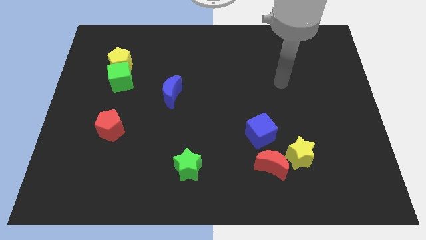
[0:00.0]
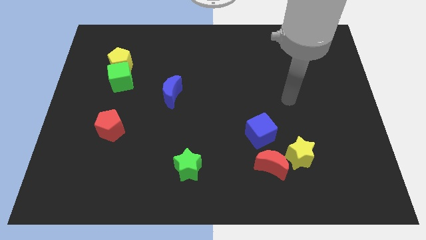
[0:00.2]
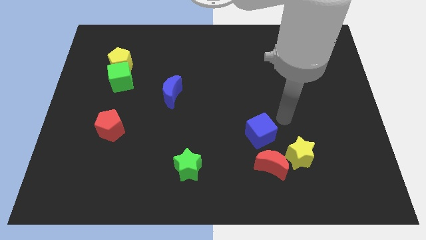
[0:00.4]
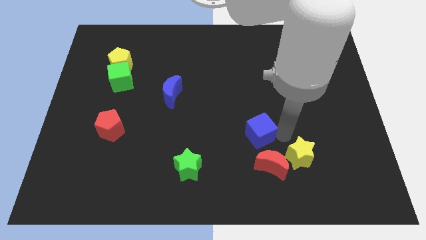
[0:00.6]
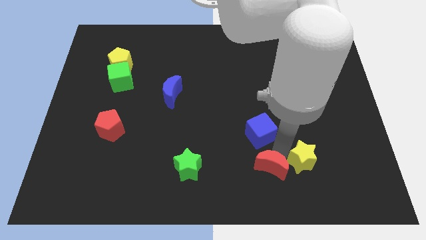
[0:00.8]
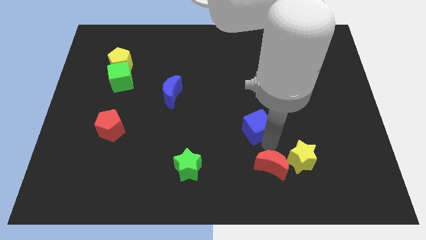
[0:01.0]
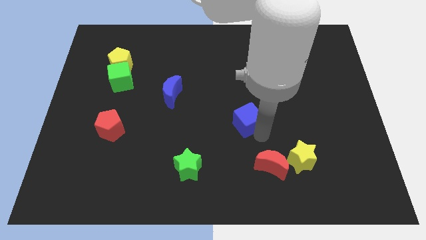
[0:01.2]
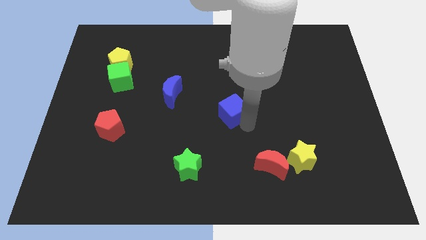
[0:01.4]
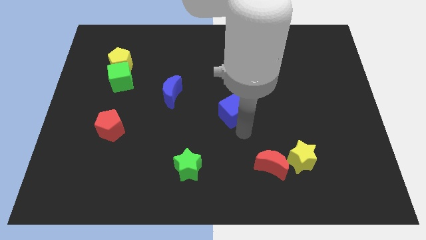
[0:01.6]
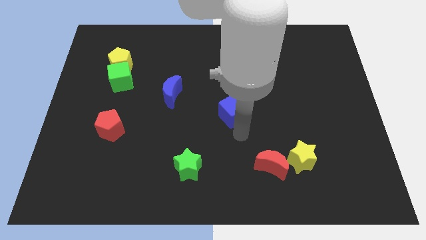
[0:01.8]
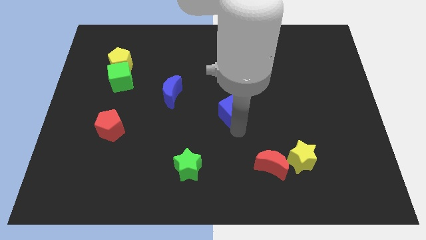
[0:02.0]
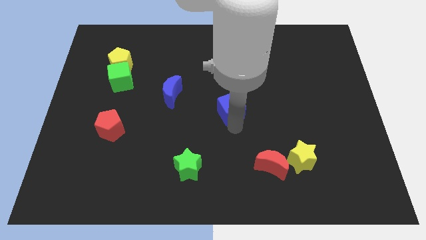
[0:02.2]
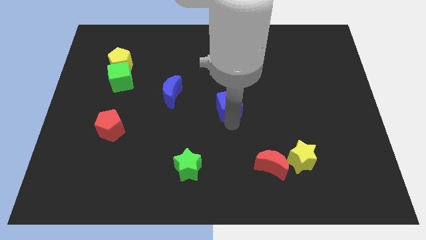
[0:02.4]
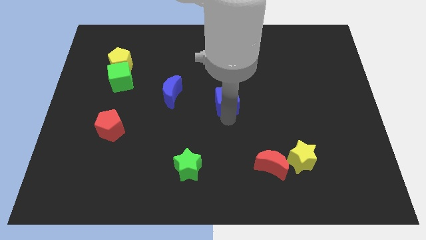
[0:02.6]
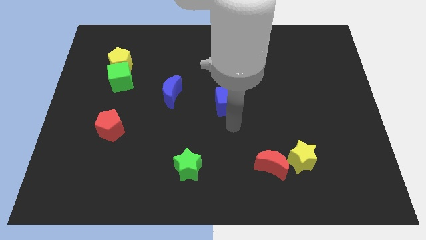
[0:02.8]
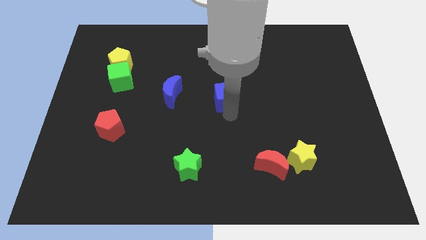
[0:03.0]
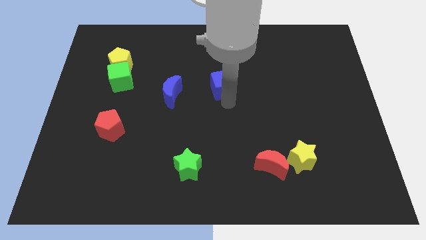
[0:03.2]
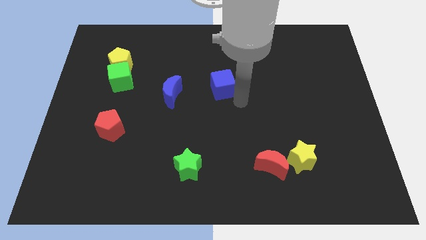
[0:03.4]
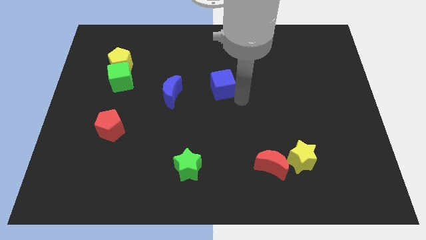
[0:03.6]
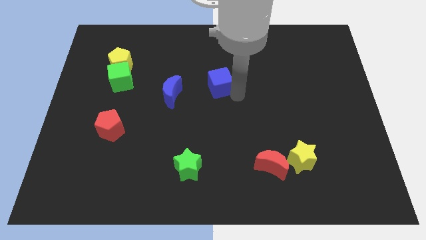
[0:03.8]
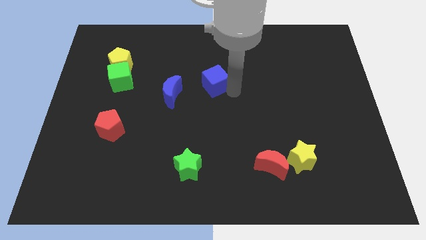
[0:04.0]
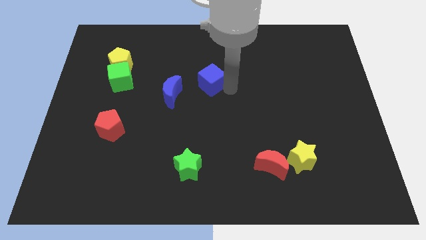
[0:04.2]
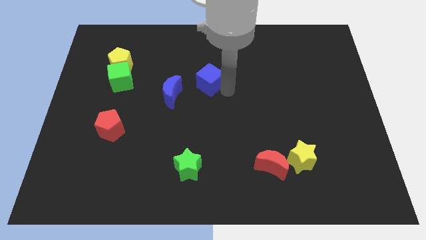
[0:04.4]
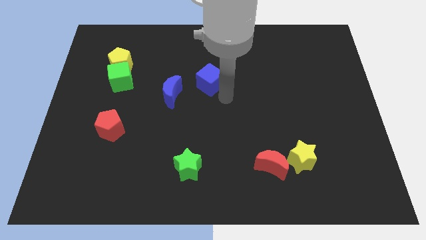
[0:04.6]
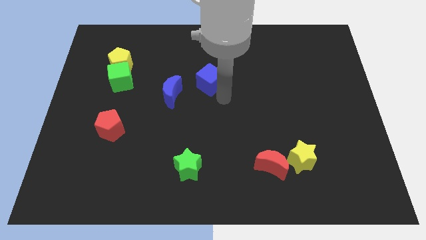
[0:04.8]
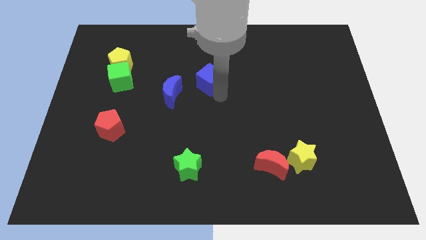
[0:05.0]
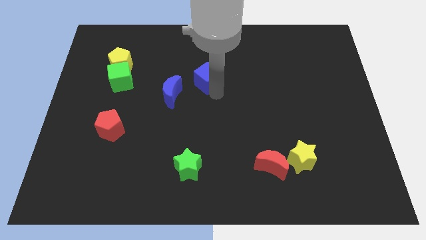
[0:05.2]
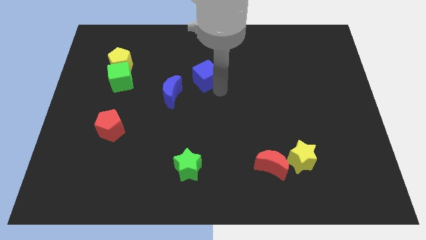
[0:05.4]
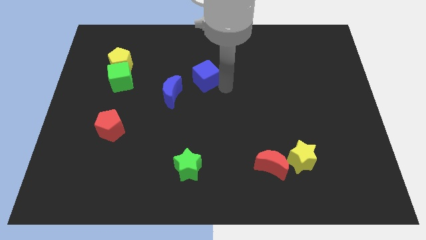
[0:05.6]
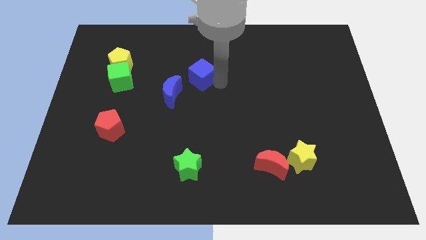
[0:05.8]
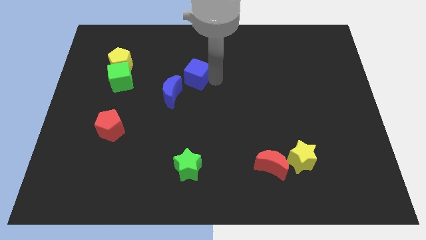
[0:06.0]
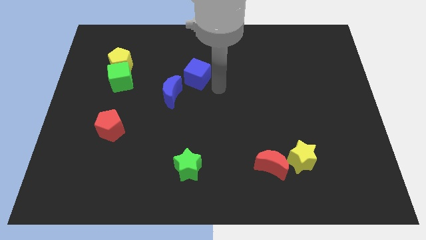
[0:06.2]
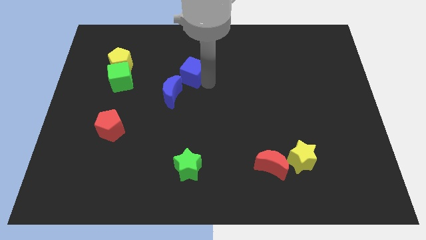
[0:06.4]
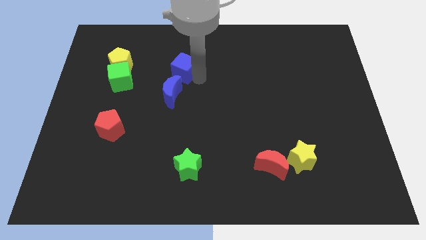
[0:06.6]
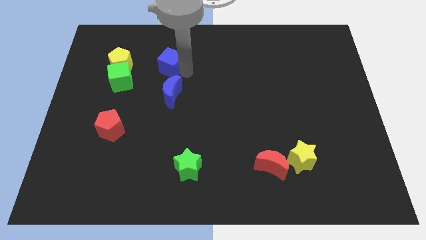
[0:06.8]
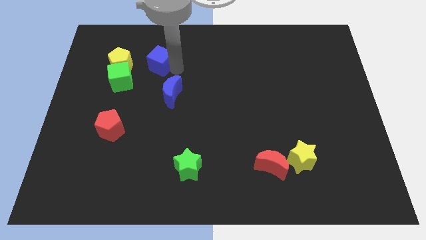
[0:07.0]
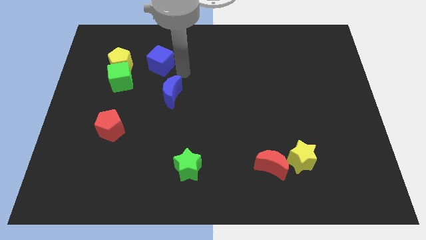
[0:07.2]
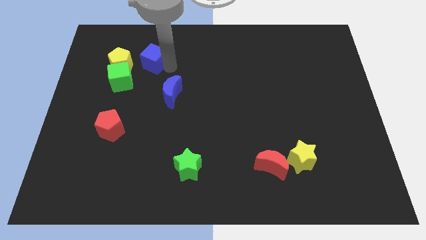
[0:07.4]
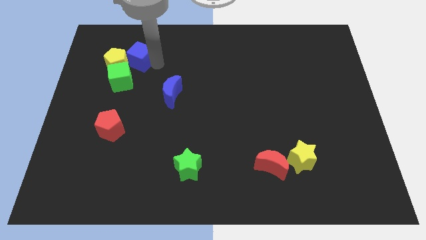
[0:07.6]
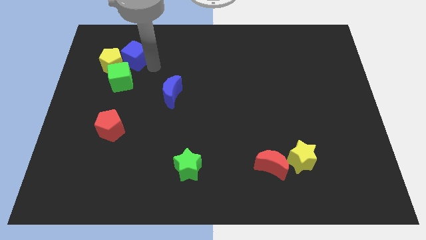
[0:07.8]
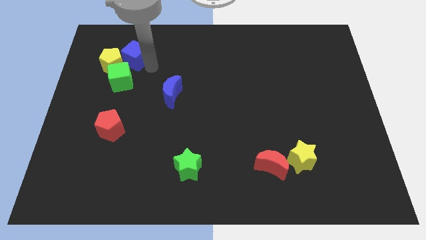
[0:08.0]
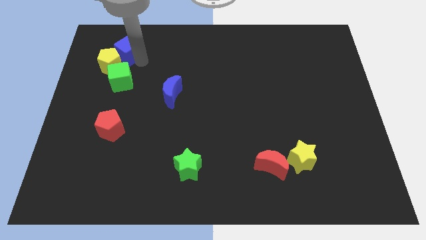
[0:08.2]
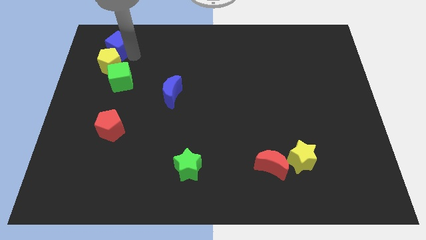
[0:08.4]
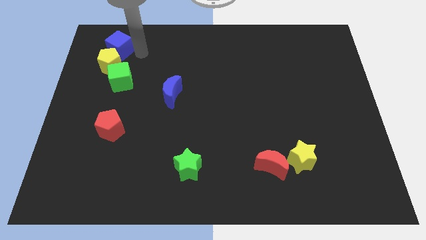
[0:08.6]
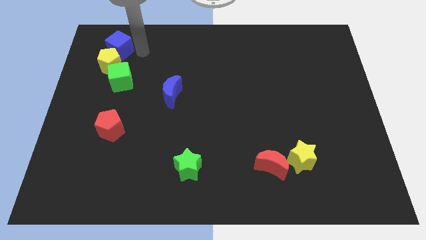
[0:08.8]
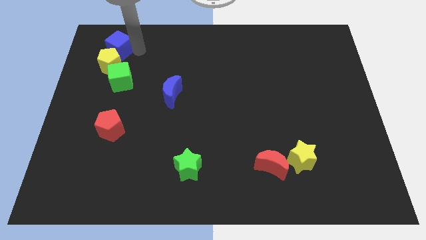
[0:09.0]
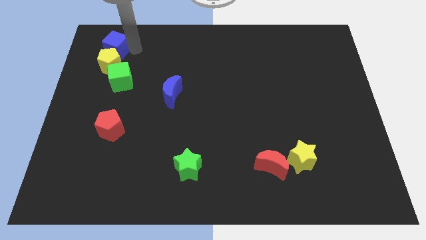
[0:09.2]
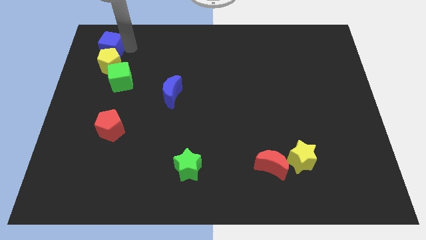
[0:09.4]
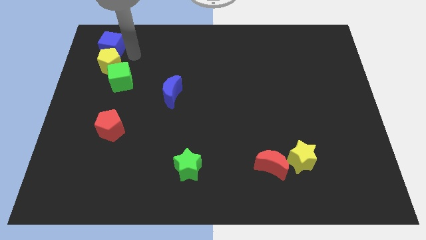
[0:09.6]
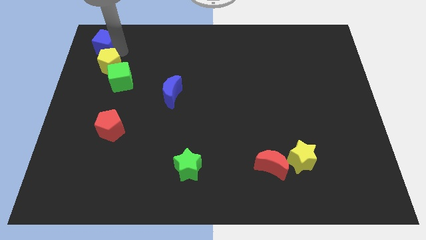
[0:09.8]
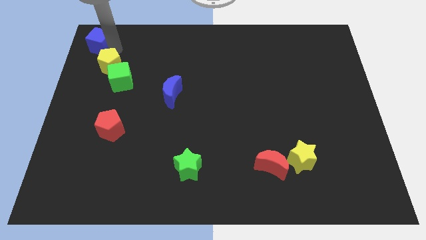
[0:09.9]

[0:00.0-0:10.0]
push the blue cube to the top left

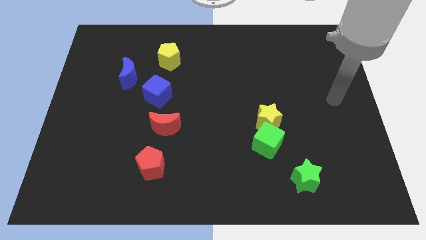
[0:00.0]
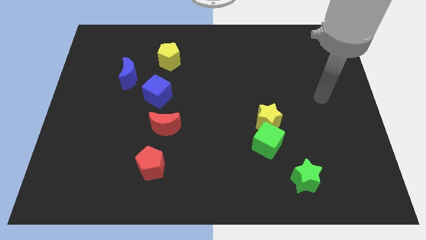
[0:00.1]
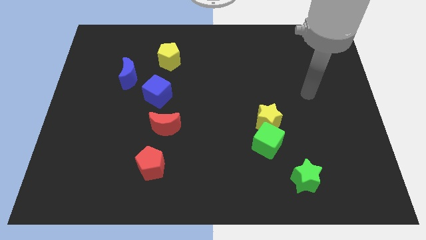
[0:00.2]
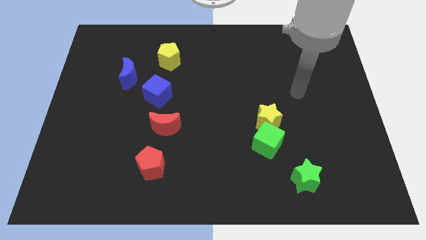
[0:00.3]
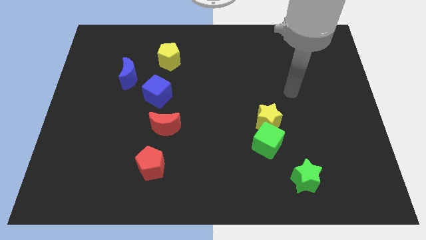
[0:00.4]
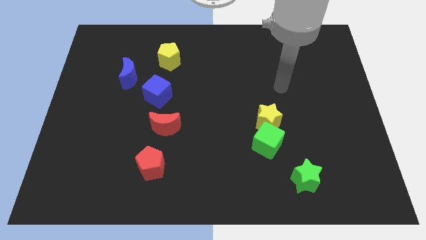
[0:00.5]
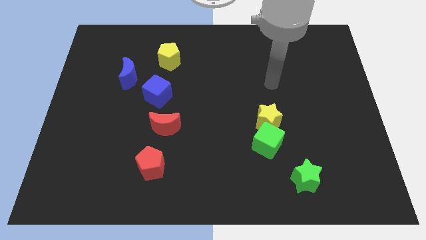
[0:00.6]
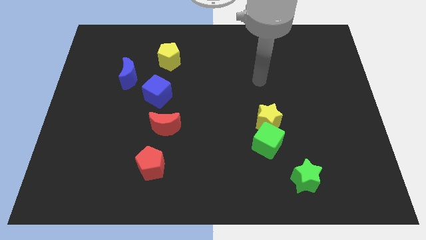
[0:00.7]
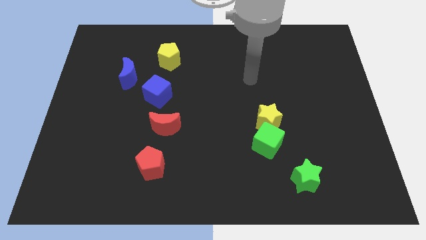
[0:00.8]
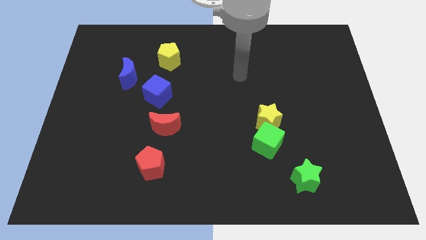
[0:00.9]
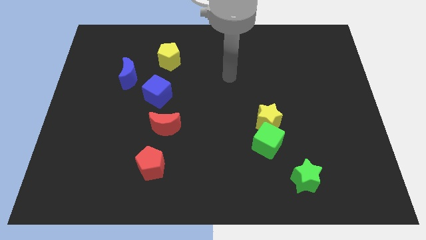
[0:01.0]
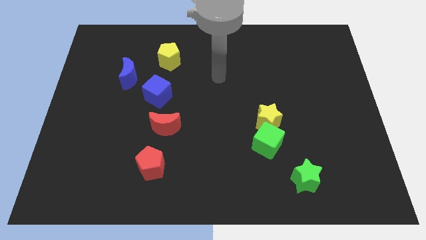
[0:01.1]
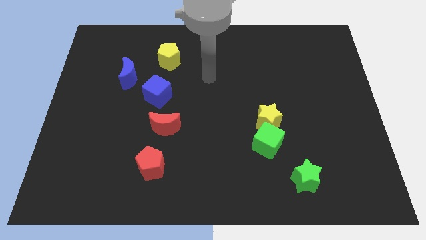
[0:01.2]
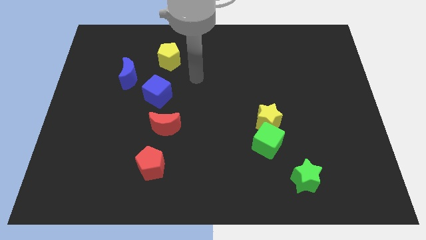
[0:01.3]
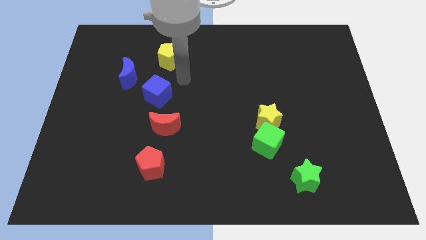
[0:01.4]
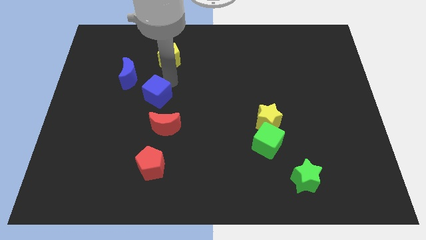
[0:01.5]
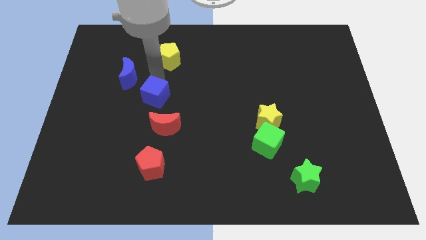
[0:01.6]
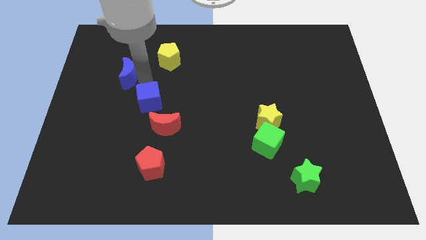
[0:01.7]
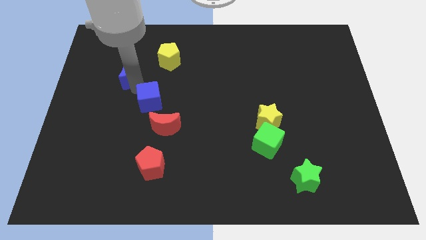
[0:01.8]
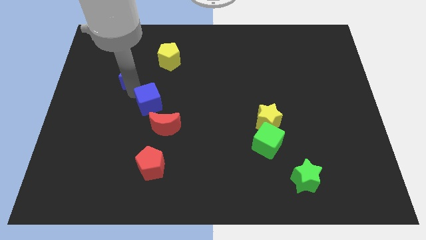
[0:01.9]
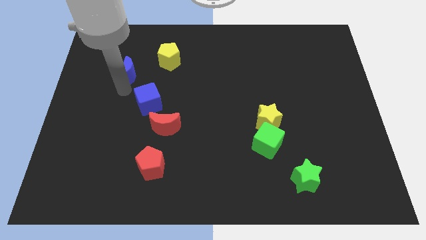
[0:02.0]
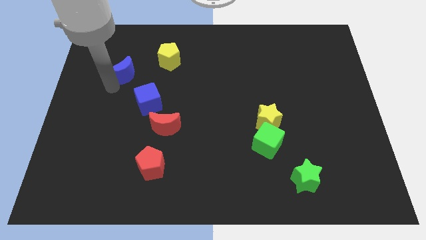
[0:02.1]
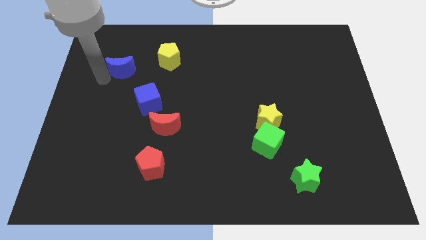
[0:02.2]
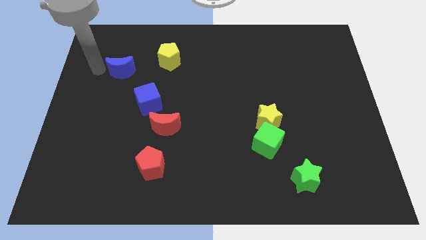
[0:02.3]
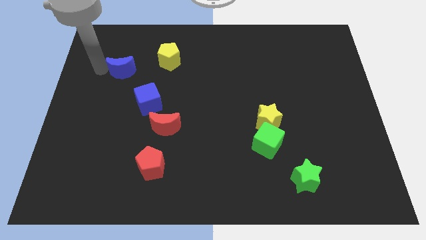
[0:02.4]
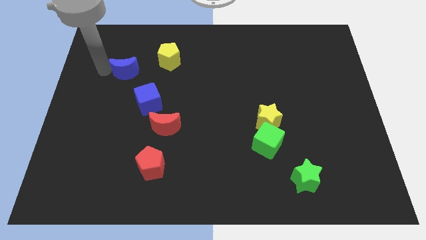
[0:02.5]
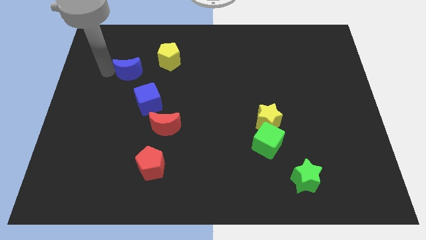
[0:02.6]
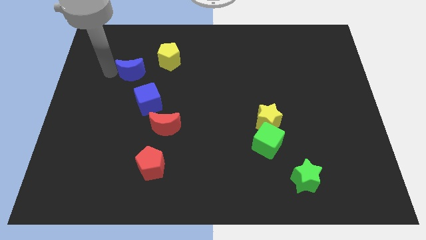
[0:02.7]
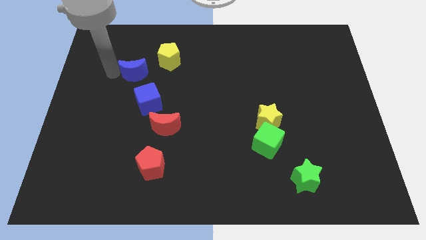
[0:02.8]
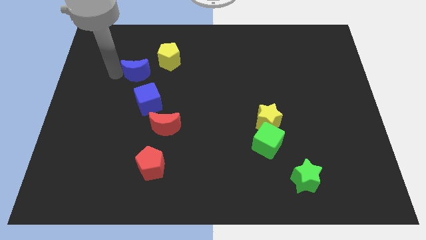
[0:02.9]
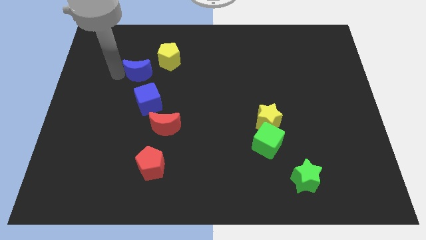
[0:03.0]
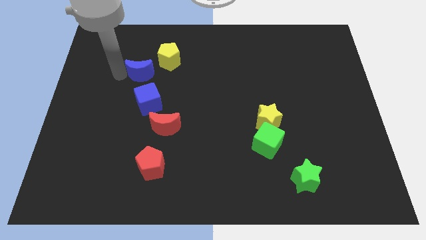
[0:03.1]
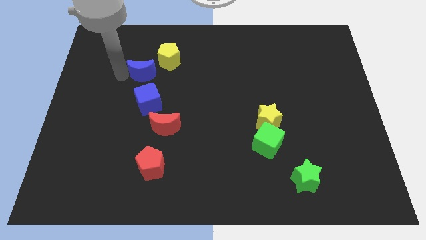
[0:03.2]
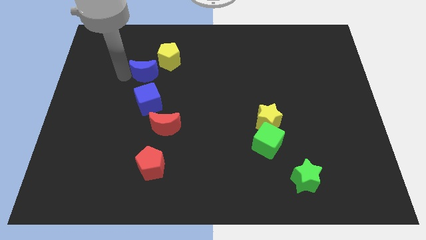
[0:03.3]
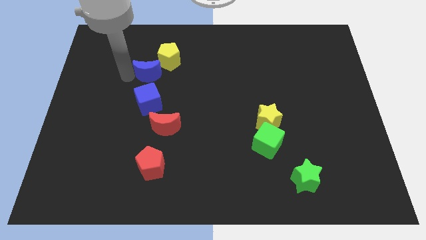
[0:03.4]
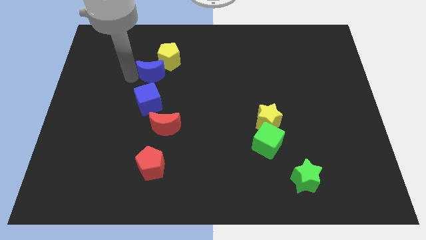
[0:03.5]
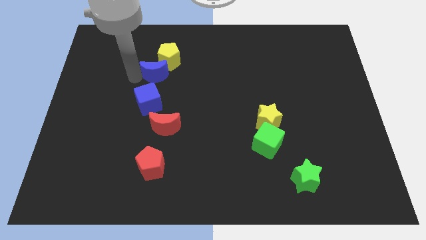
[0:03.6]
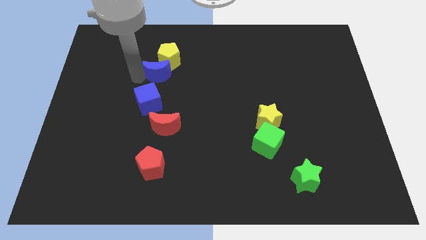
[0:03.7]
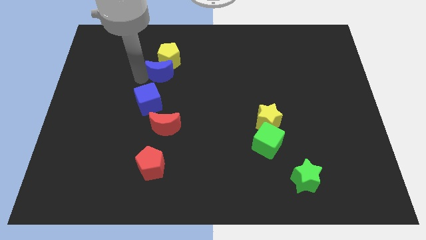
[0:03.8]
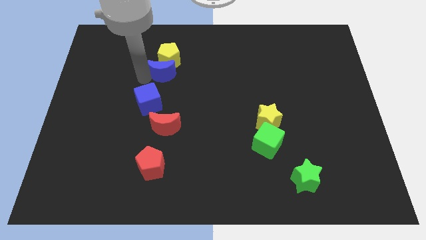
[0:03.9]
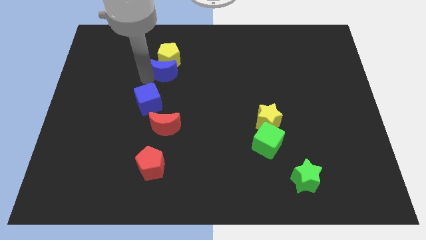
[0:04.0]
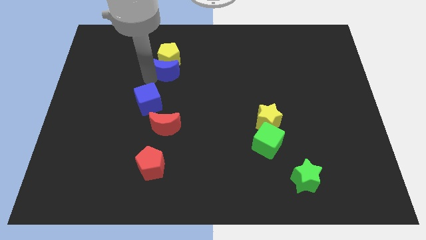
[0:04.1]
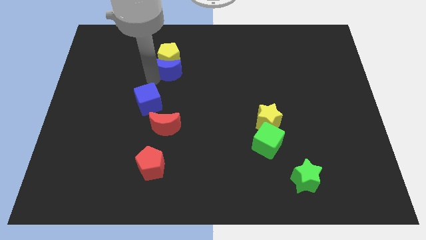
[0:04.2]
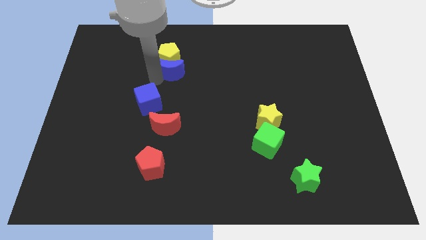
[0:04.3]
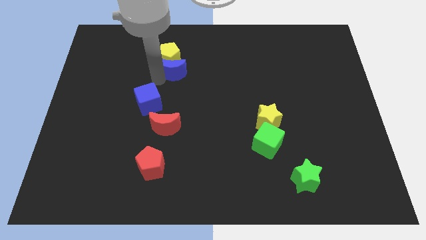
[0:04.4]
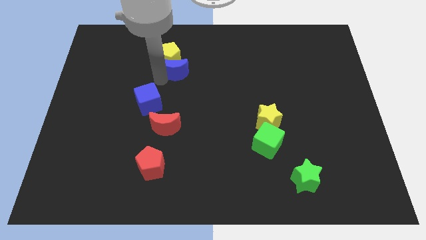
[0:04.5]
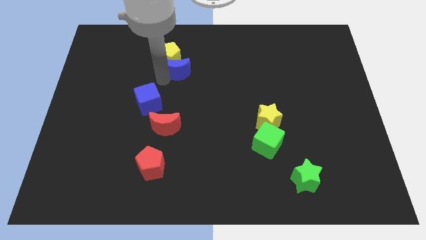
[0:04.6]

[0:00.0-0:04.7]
push the blue moon to the middle
